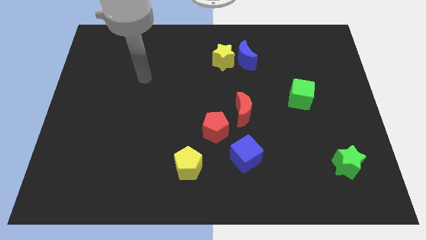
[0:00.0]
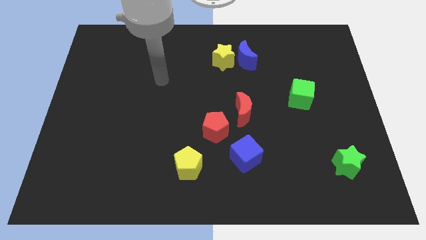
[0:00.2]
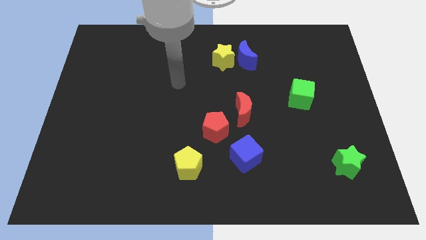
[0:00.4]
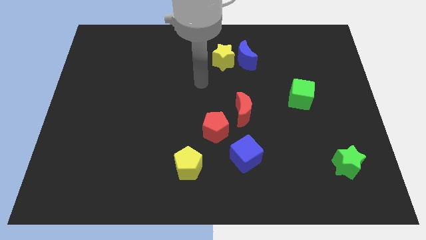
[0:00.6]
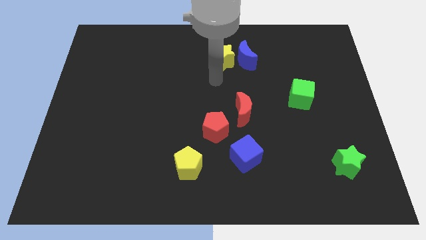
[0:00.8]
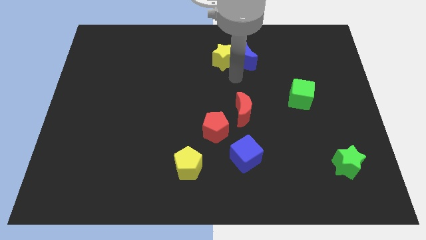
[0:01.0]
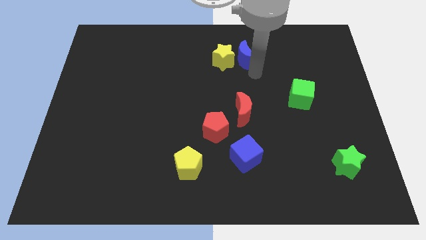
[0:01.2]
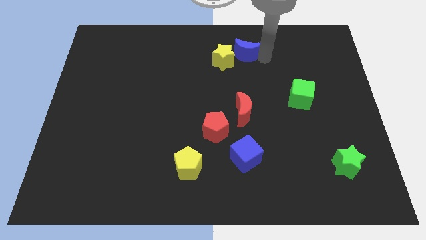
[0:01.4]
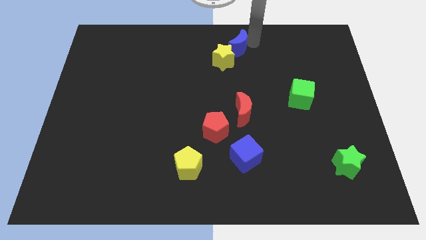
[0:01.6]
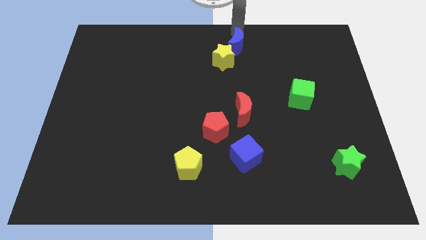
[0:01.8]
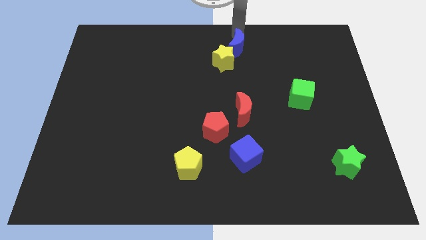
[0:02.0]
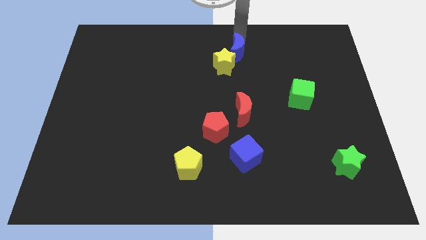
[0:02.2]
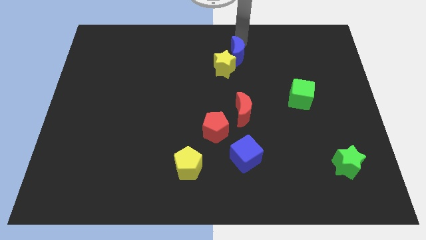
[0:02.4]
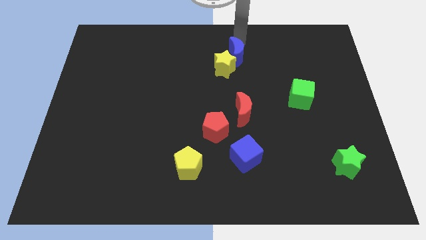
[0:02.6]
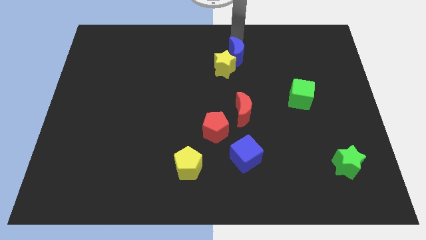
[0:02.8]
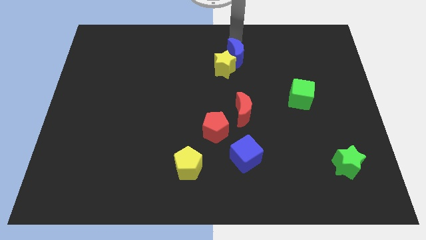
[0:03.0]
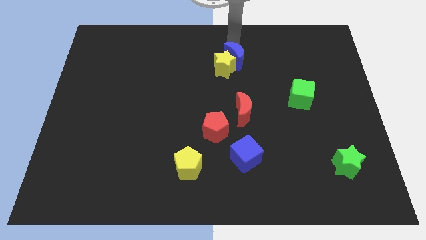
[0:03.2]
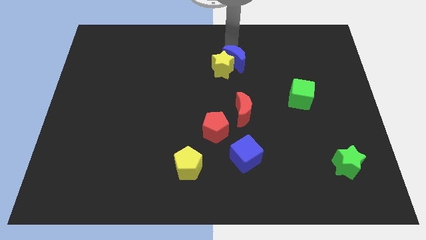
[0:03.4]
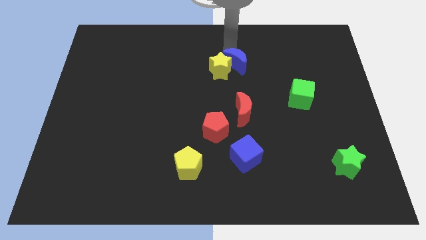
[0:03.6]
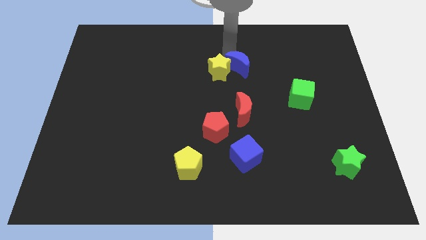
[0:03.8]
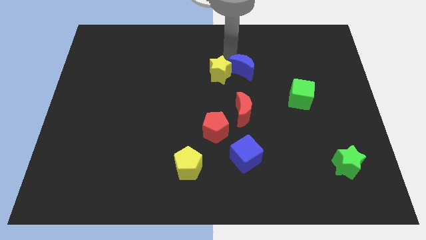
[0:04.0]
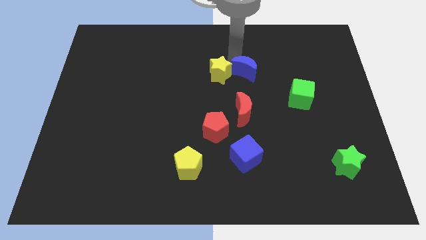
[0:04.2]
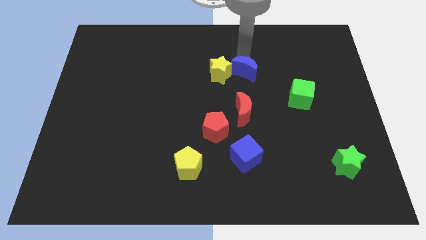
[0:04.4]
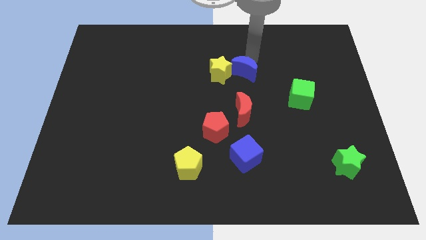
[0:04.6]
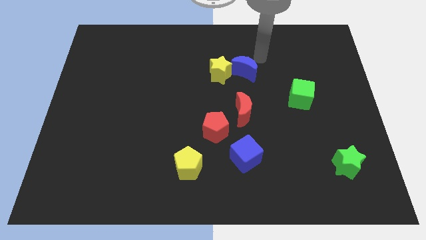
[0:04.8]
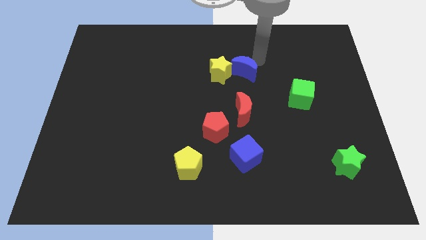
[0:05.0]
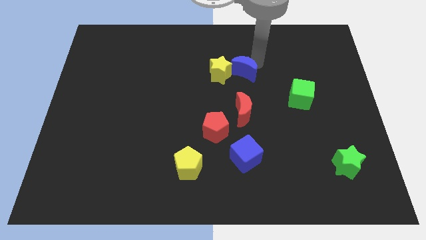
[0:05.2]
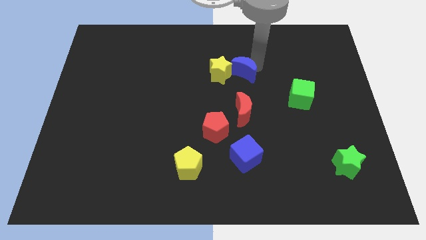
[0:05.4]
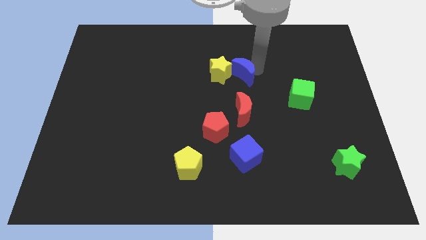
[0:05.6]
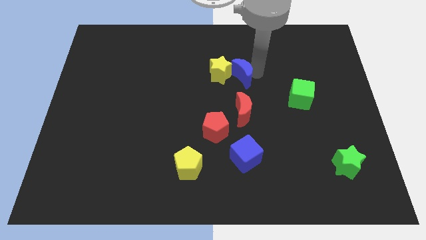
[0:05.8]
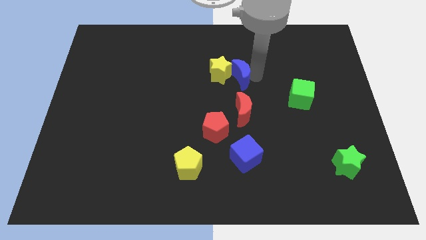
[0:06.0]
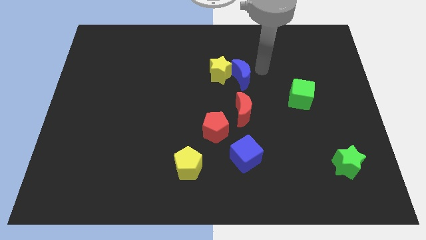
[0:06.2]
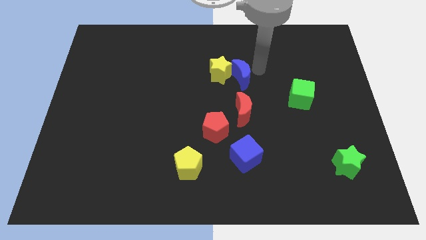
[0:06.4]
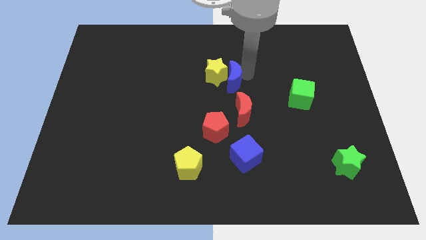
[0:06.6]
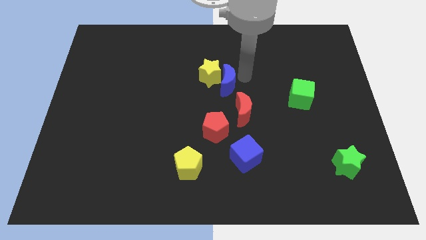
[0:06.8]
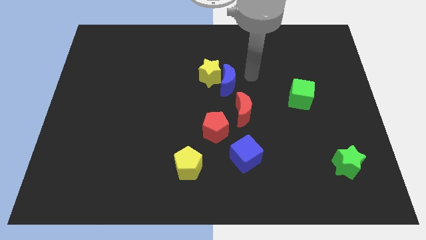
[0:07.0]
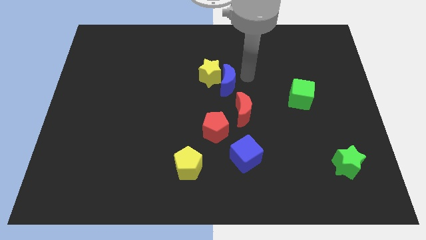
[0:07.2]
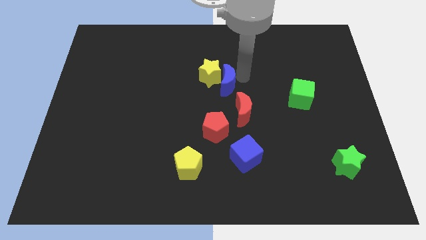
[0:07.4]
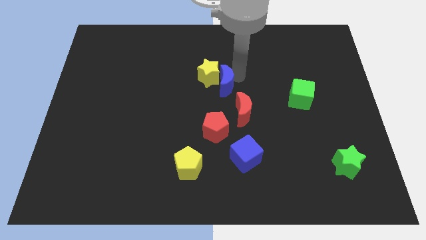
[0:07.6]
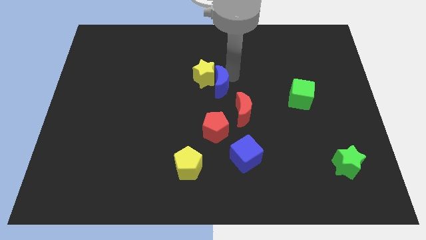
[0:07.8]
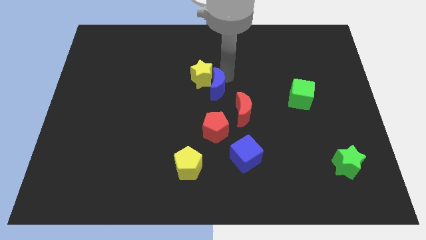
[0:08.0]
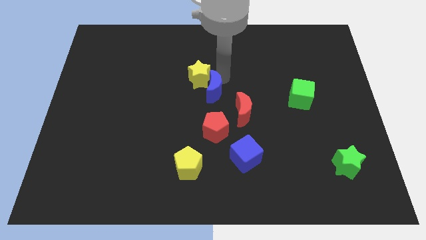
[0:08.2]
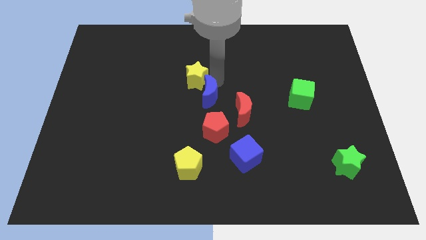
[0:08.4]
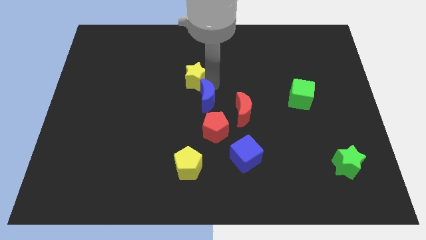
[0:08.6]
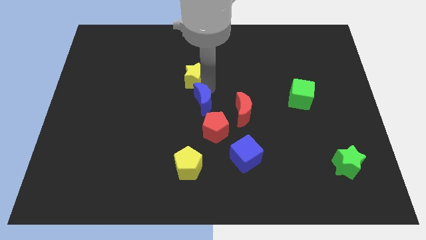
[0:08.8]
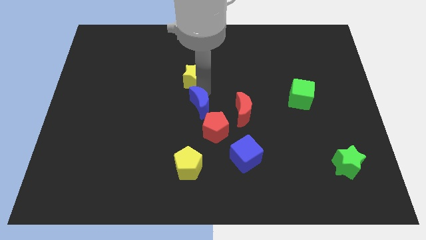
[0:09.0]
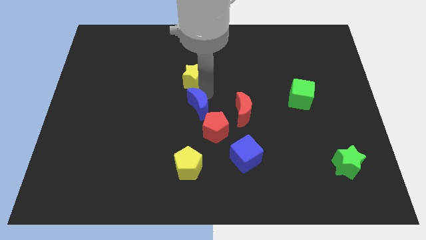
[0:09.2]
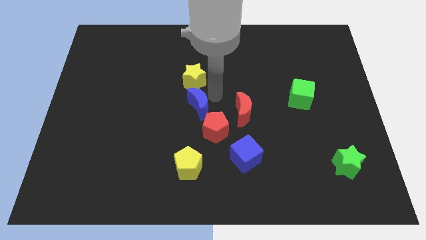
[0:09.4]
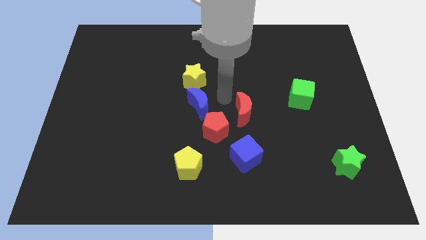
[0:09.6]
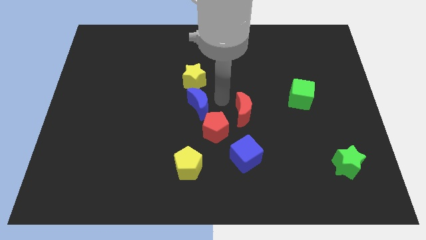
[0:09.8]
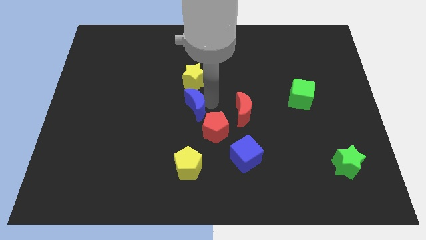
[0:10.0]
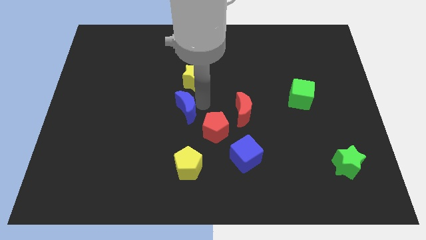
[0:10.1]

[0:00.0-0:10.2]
push the blue moon down and to the left

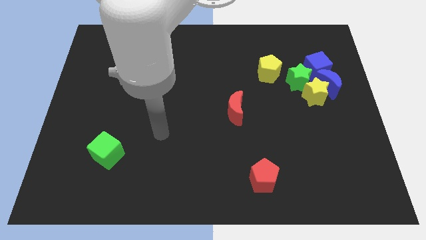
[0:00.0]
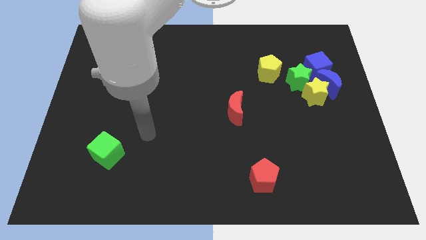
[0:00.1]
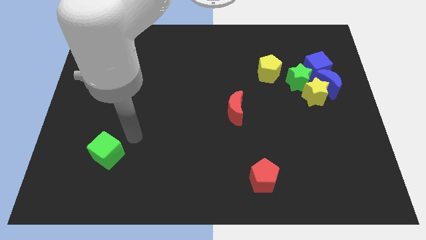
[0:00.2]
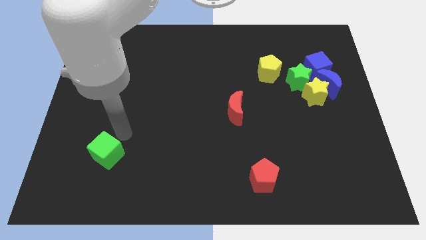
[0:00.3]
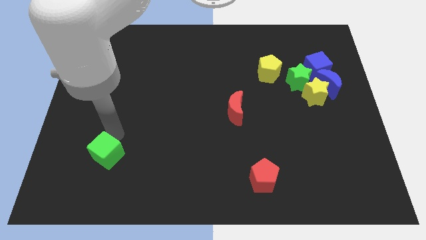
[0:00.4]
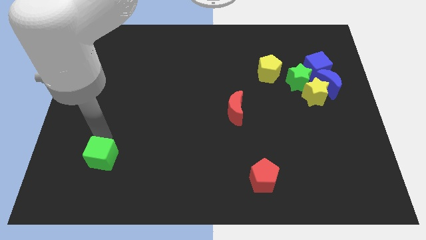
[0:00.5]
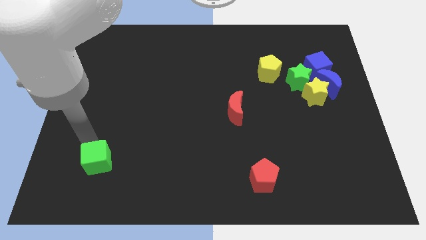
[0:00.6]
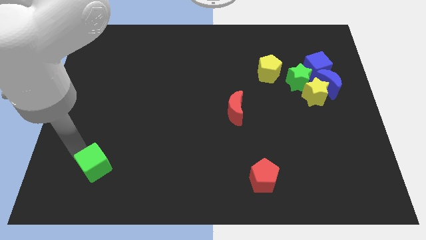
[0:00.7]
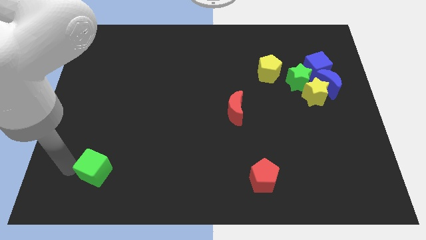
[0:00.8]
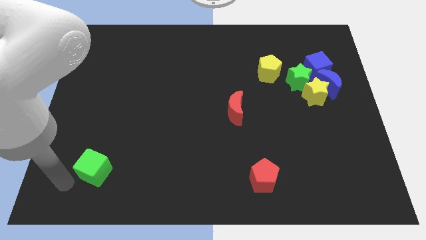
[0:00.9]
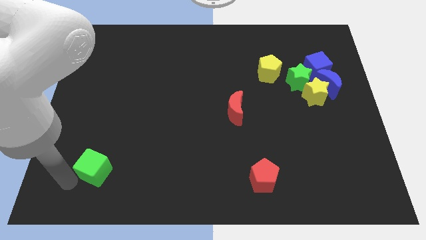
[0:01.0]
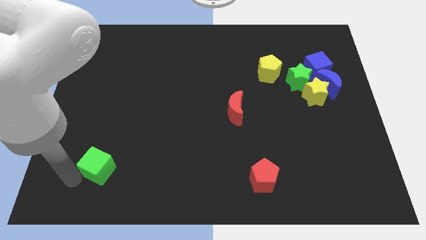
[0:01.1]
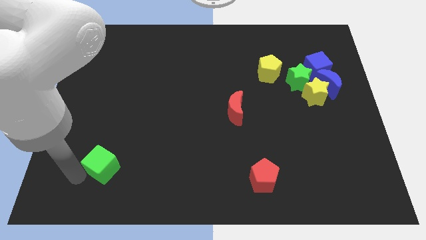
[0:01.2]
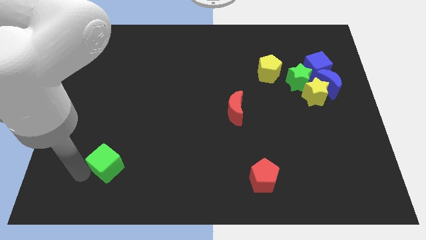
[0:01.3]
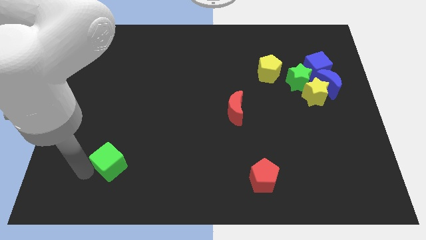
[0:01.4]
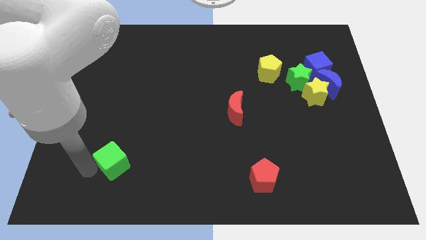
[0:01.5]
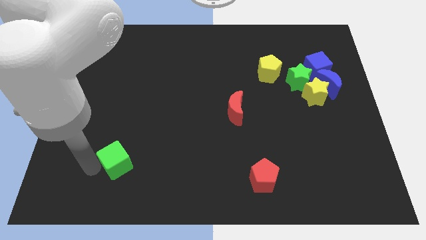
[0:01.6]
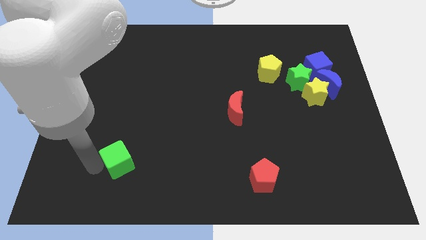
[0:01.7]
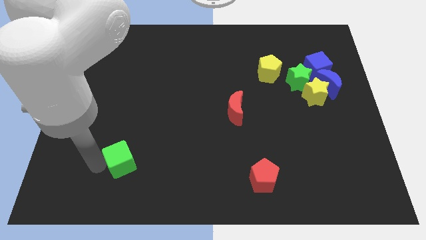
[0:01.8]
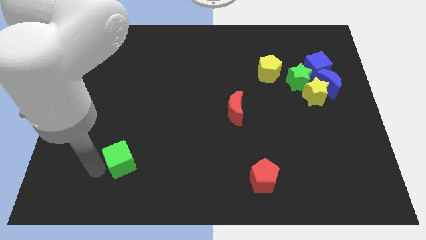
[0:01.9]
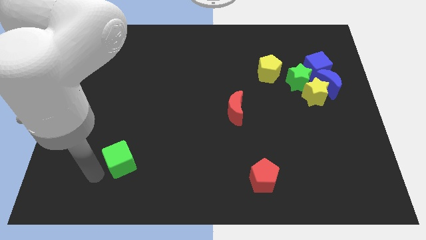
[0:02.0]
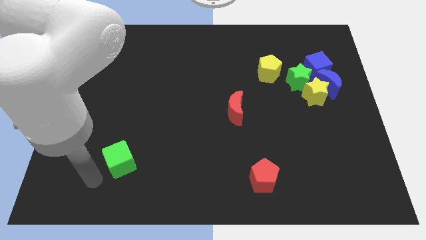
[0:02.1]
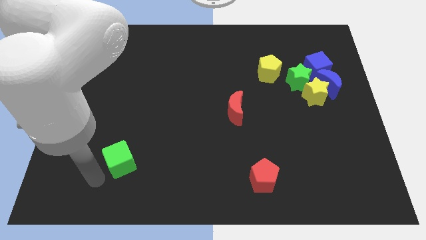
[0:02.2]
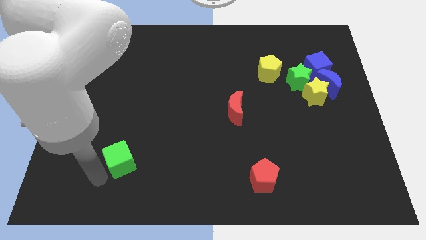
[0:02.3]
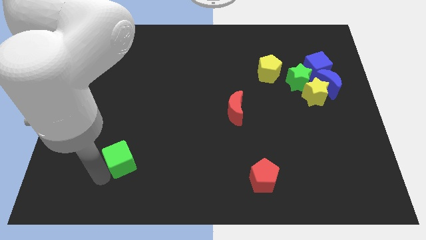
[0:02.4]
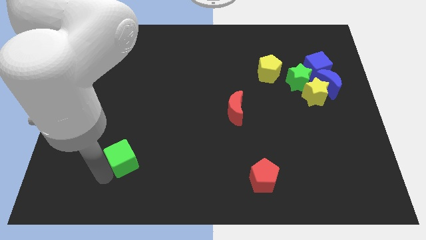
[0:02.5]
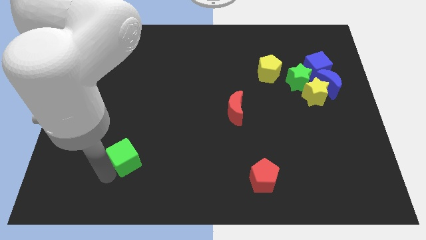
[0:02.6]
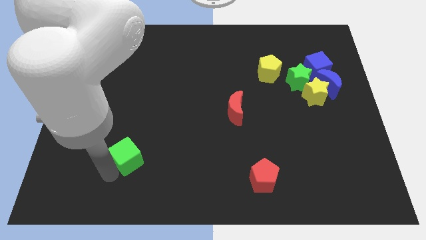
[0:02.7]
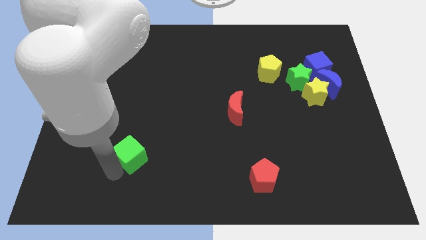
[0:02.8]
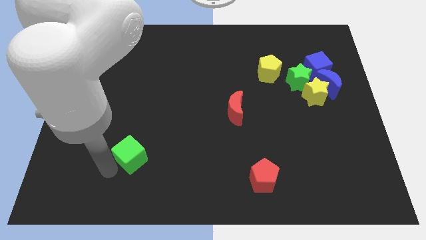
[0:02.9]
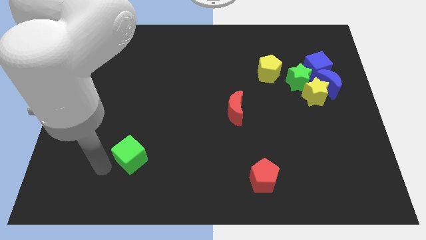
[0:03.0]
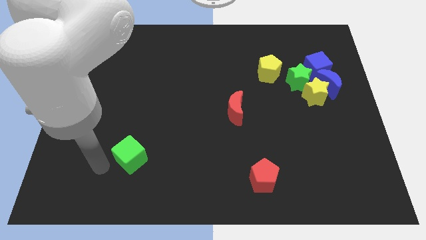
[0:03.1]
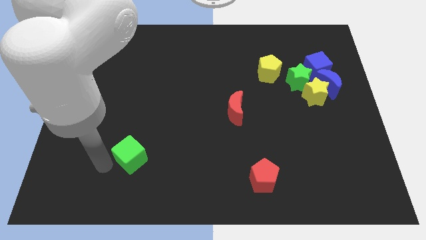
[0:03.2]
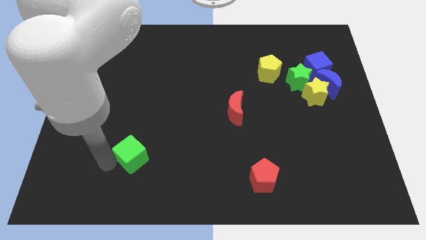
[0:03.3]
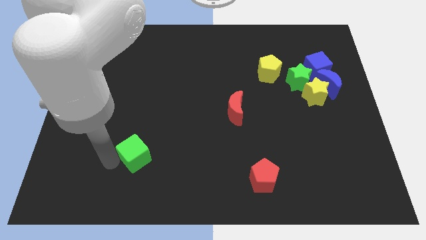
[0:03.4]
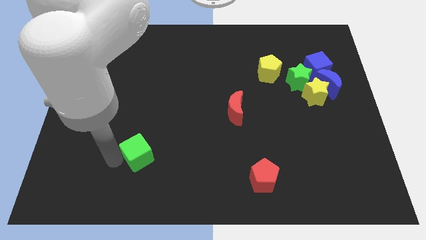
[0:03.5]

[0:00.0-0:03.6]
slide the green cube right slightly
